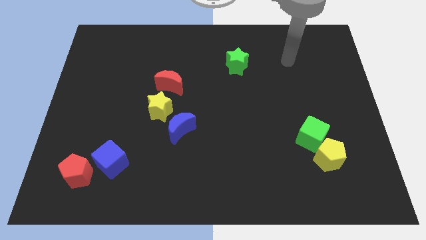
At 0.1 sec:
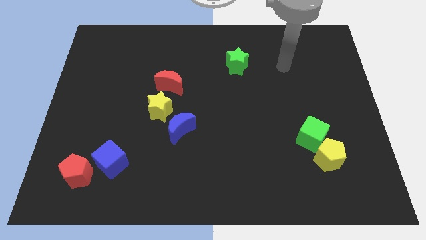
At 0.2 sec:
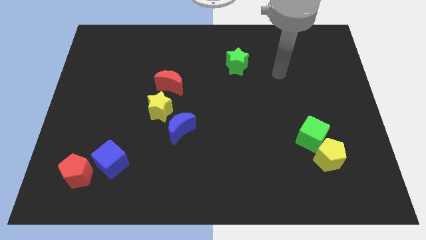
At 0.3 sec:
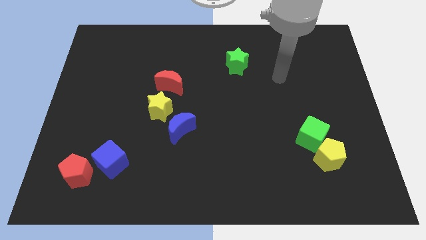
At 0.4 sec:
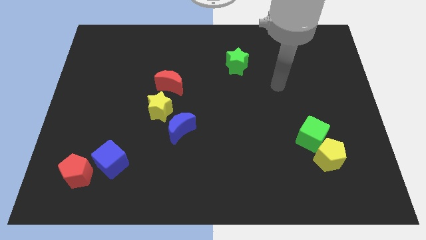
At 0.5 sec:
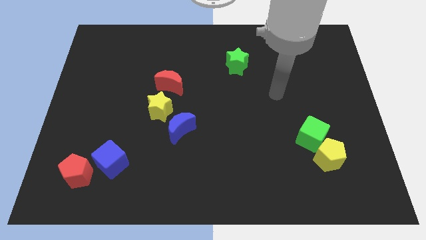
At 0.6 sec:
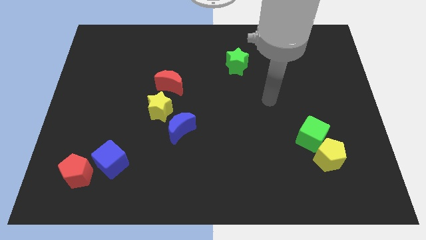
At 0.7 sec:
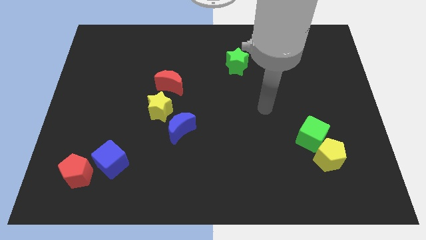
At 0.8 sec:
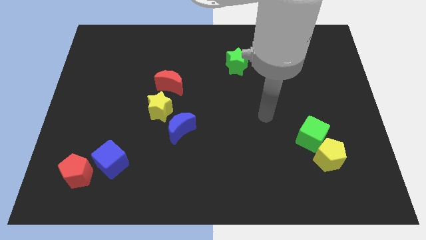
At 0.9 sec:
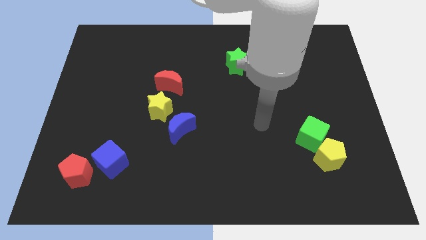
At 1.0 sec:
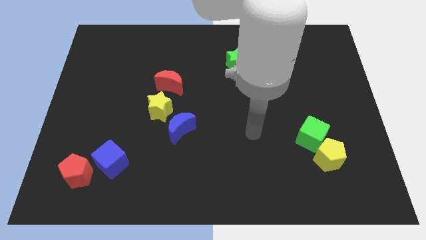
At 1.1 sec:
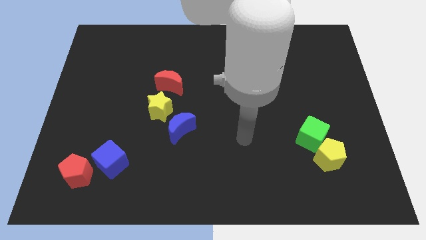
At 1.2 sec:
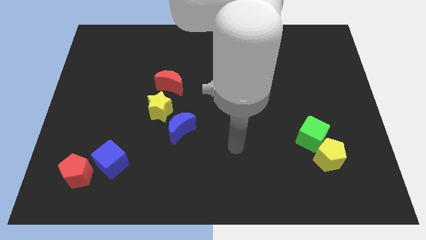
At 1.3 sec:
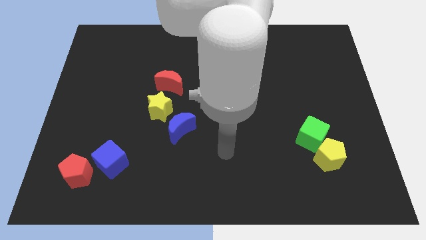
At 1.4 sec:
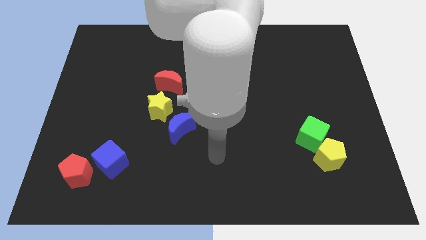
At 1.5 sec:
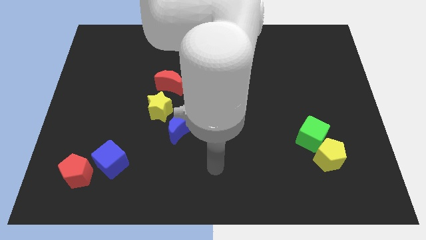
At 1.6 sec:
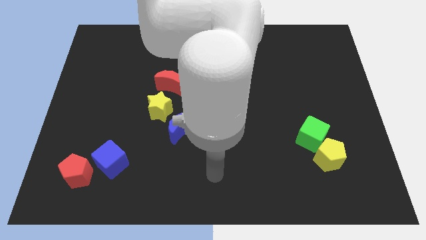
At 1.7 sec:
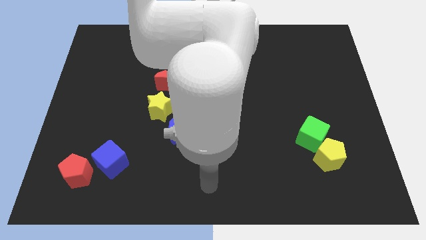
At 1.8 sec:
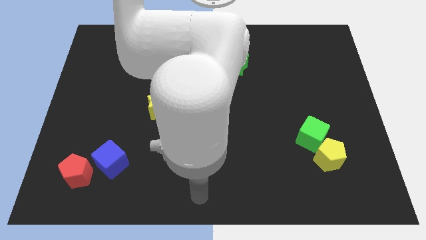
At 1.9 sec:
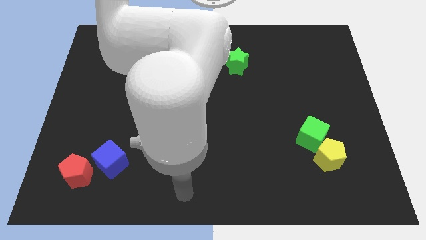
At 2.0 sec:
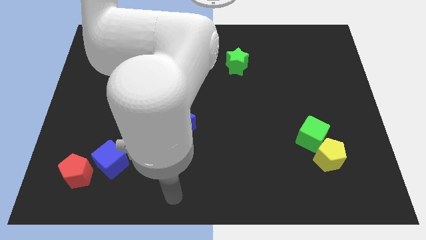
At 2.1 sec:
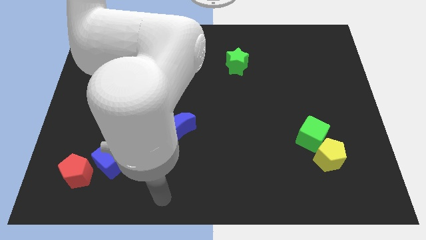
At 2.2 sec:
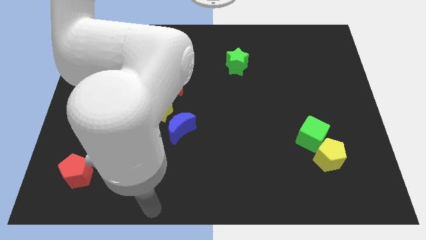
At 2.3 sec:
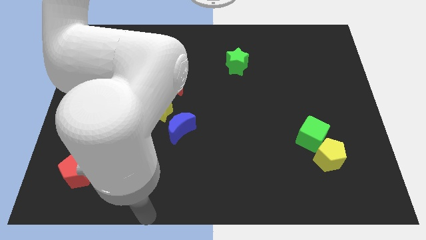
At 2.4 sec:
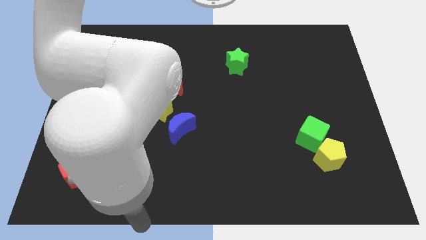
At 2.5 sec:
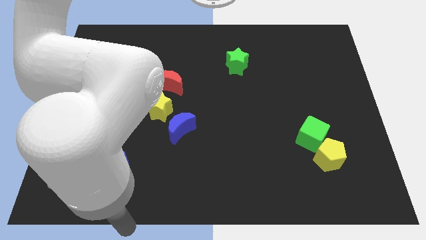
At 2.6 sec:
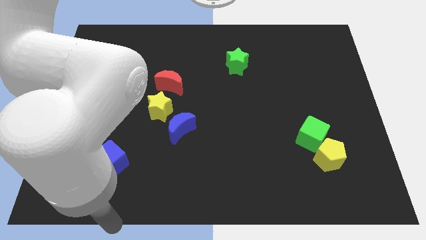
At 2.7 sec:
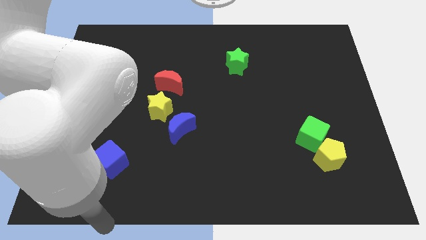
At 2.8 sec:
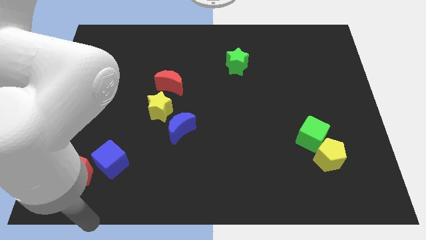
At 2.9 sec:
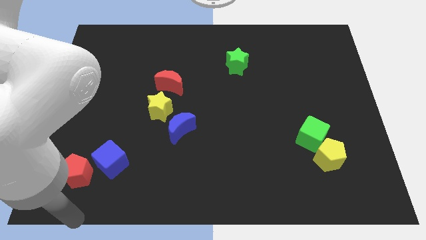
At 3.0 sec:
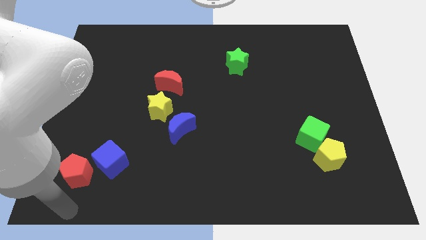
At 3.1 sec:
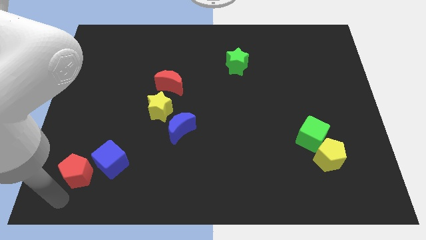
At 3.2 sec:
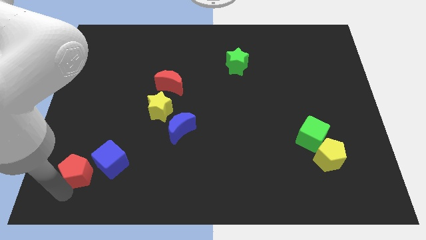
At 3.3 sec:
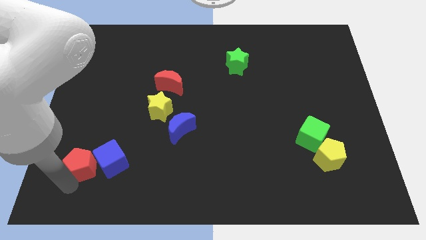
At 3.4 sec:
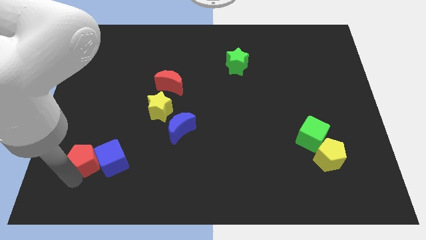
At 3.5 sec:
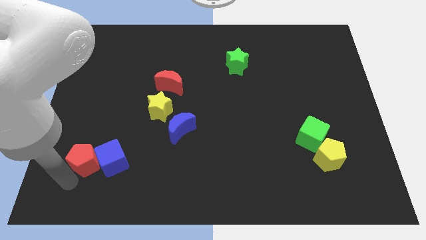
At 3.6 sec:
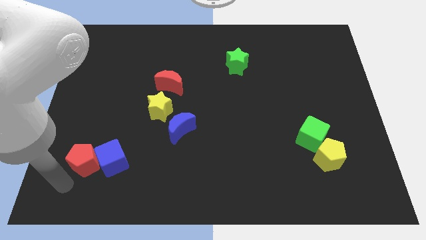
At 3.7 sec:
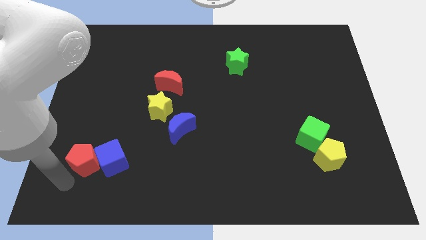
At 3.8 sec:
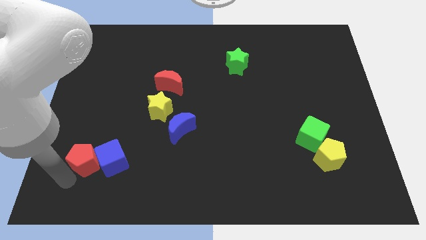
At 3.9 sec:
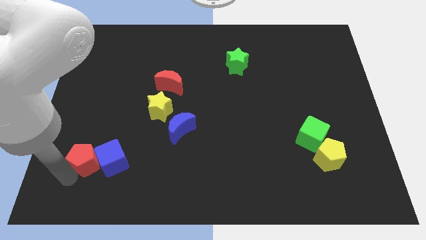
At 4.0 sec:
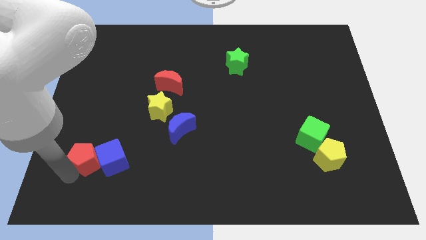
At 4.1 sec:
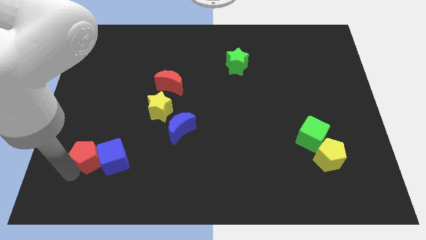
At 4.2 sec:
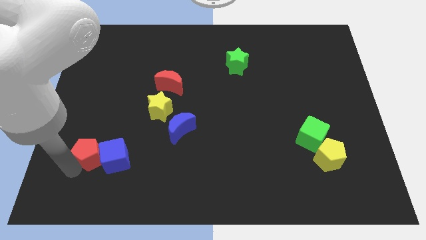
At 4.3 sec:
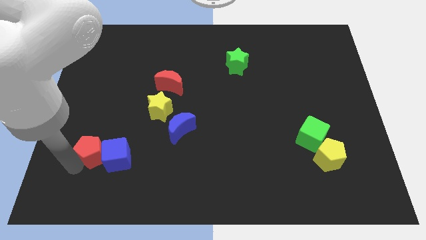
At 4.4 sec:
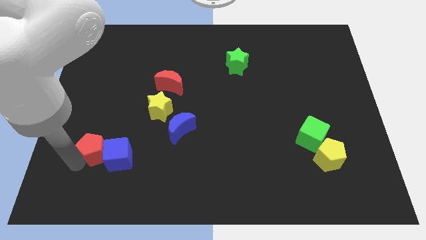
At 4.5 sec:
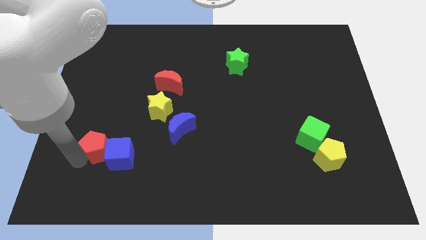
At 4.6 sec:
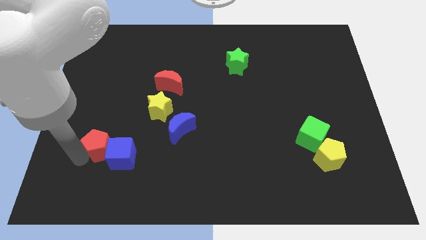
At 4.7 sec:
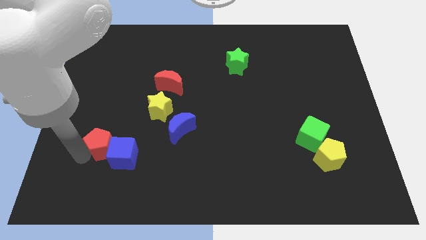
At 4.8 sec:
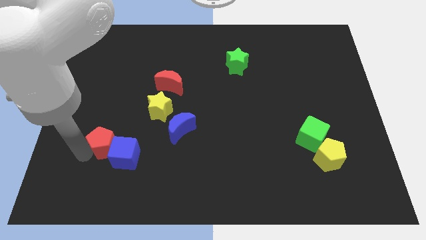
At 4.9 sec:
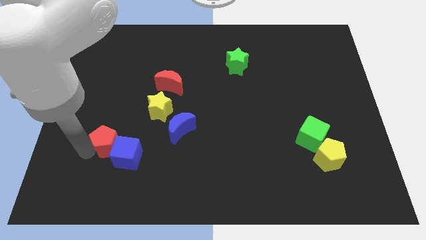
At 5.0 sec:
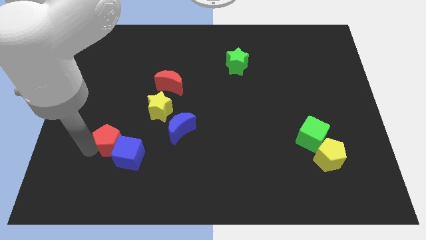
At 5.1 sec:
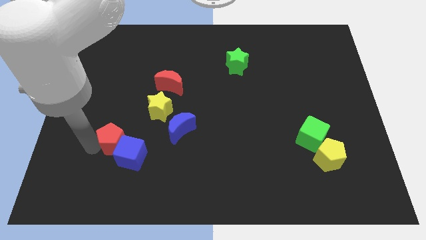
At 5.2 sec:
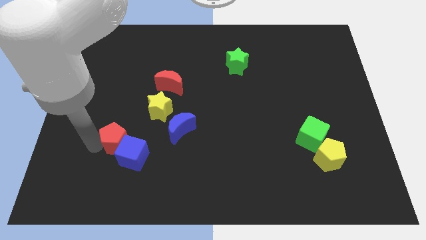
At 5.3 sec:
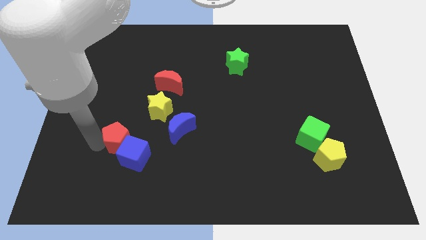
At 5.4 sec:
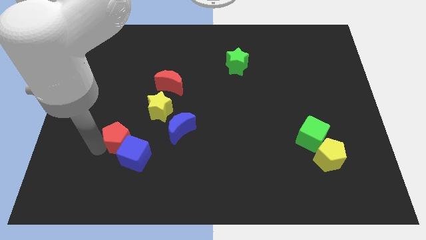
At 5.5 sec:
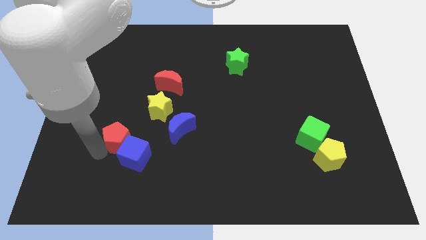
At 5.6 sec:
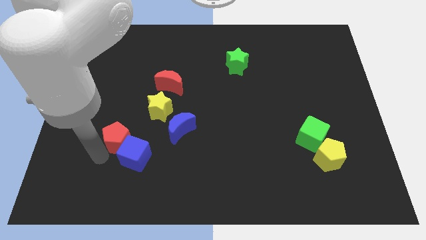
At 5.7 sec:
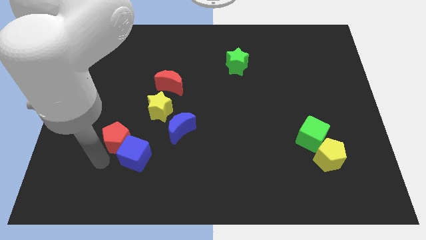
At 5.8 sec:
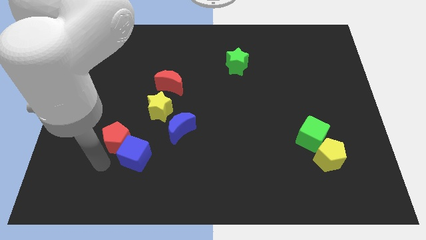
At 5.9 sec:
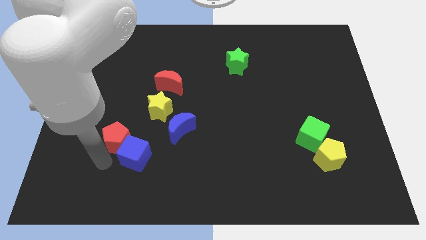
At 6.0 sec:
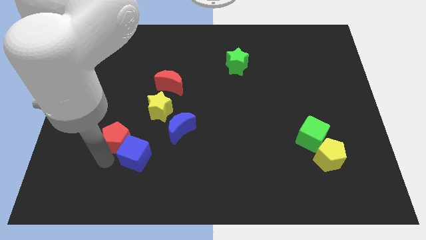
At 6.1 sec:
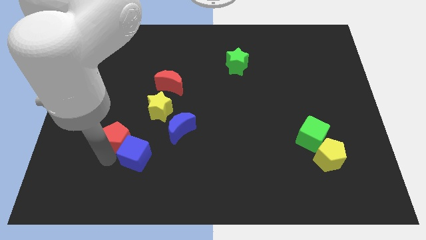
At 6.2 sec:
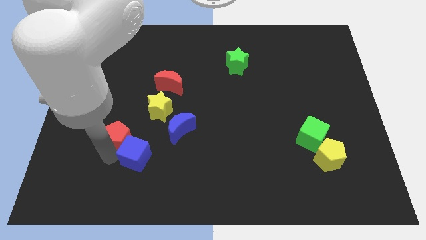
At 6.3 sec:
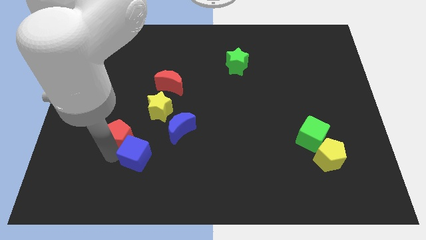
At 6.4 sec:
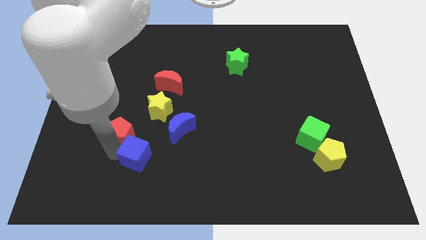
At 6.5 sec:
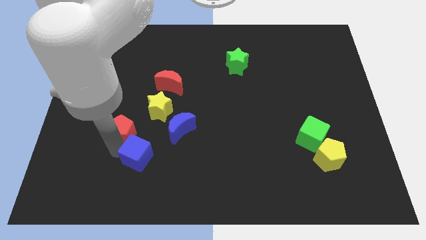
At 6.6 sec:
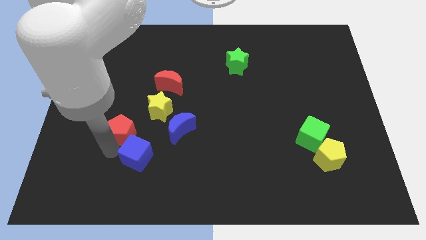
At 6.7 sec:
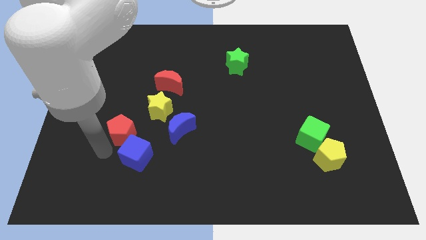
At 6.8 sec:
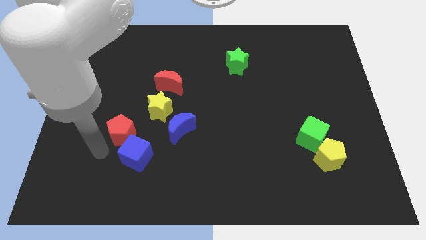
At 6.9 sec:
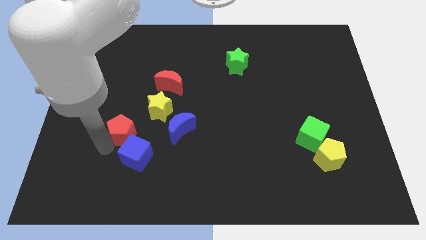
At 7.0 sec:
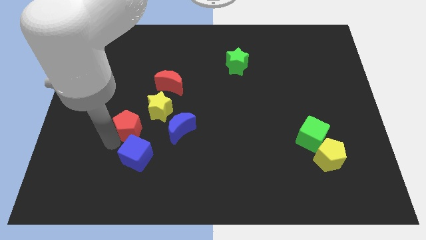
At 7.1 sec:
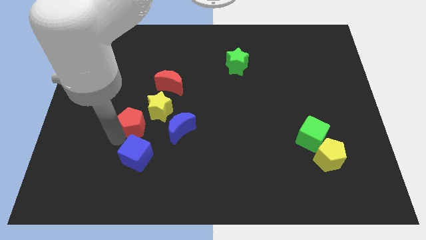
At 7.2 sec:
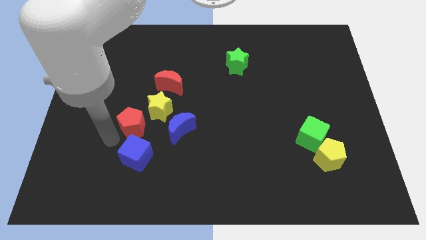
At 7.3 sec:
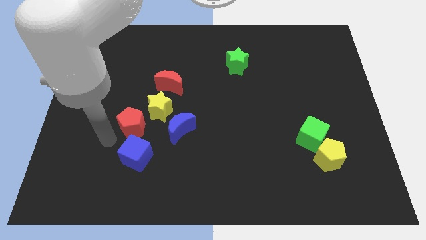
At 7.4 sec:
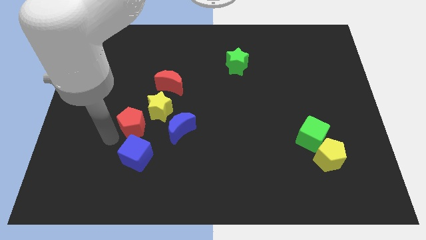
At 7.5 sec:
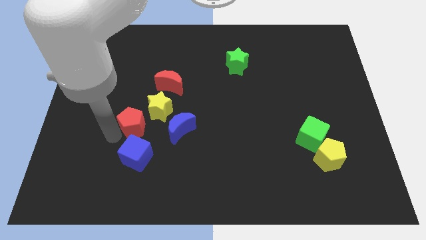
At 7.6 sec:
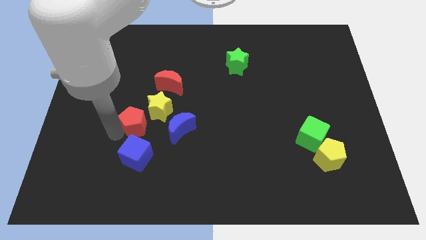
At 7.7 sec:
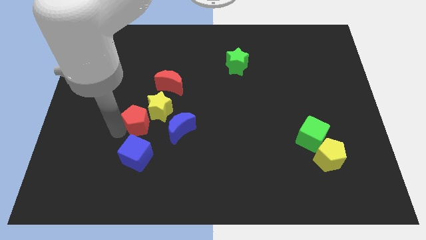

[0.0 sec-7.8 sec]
put the red pentagon next to the yellow star
